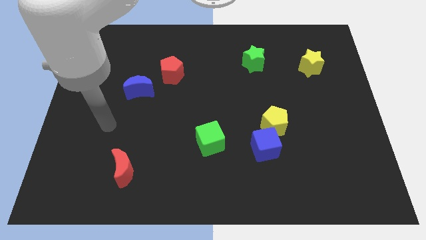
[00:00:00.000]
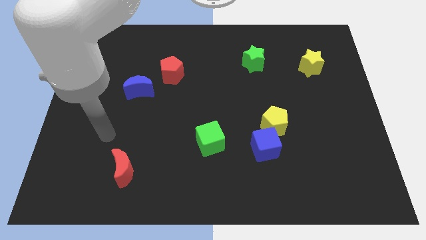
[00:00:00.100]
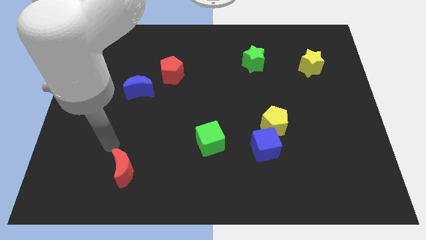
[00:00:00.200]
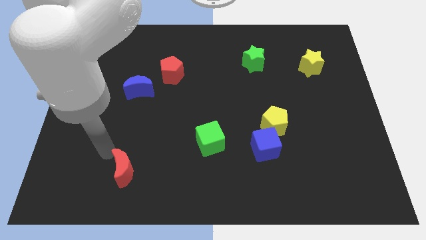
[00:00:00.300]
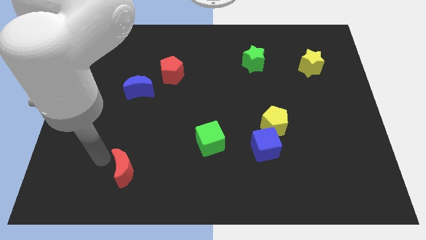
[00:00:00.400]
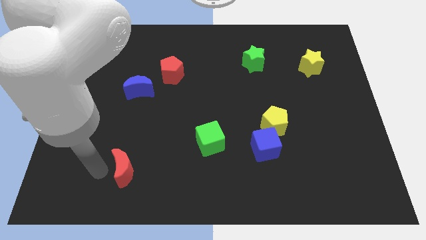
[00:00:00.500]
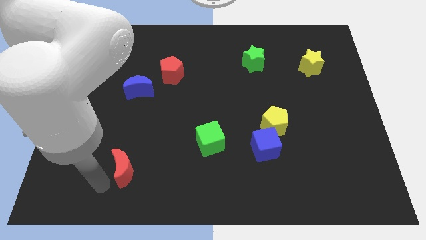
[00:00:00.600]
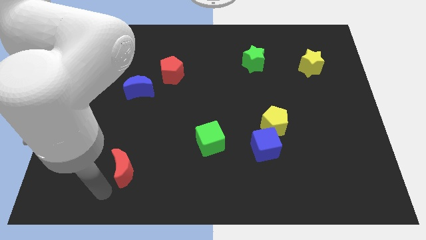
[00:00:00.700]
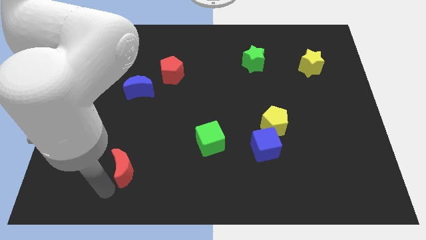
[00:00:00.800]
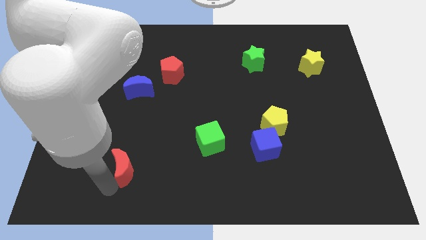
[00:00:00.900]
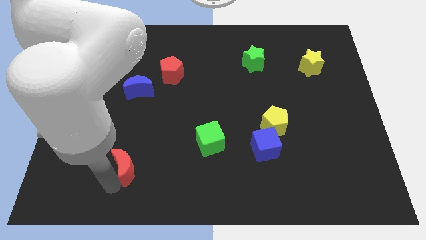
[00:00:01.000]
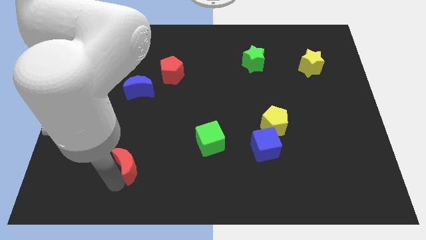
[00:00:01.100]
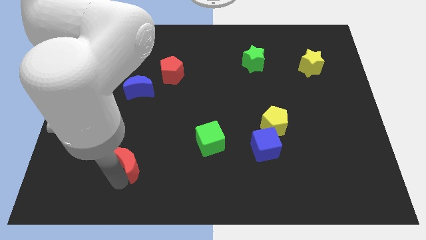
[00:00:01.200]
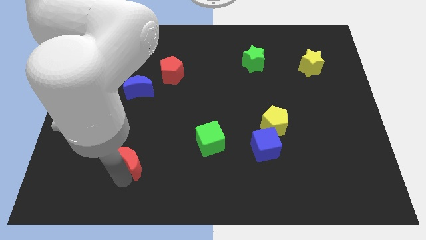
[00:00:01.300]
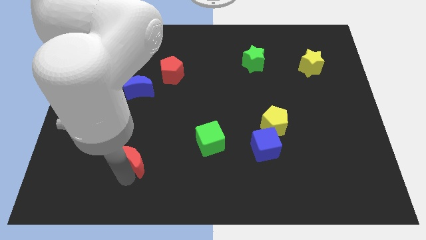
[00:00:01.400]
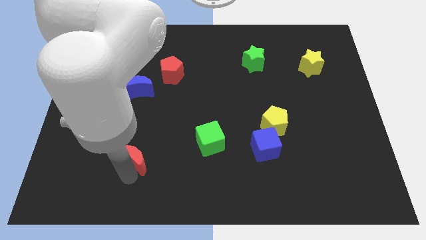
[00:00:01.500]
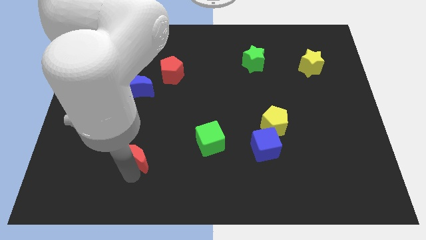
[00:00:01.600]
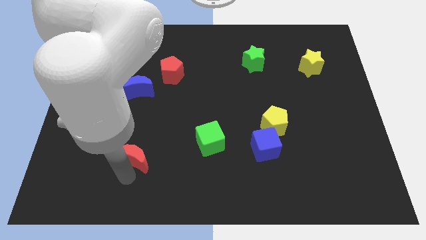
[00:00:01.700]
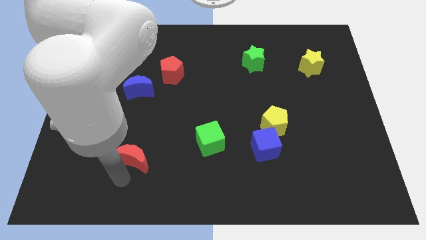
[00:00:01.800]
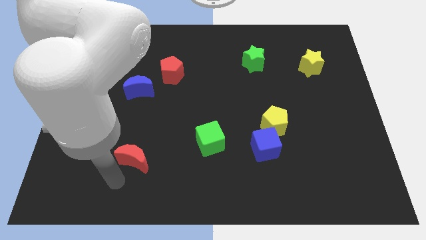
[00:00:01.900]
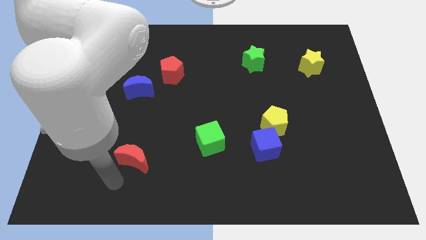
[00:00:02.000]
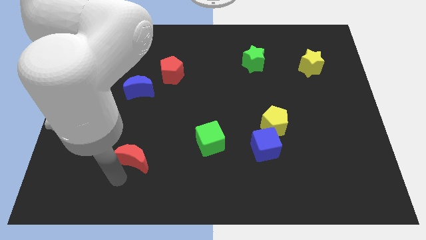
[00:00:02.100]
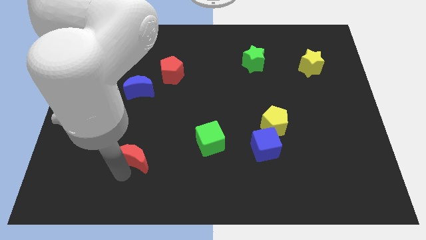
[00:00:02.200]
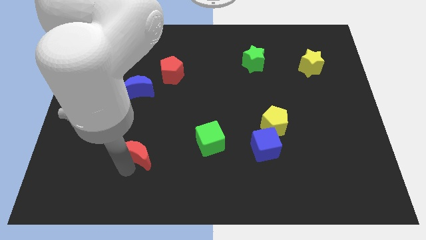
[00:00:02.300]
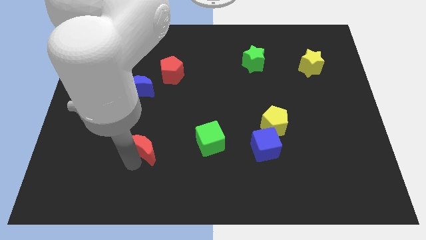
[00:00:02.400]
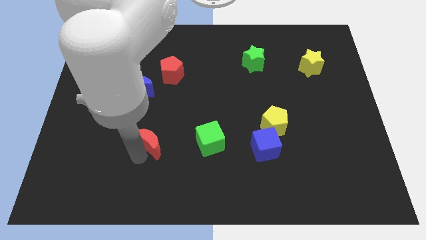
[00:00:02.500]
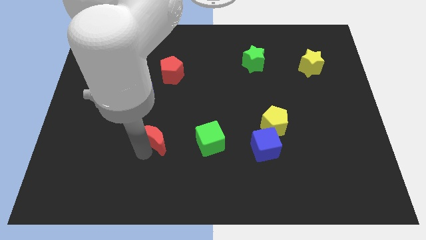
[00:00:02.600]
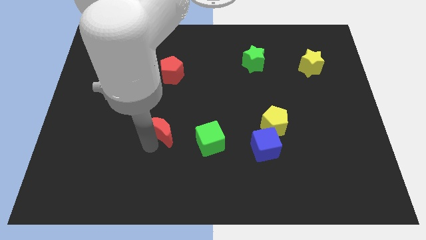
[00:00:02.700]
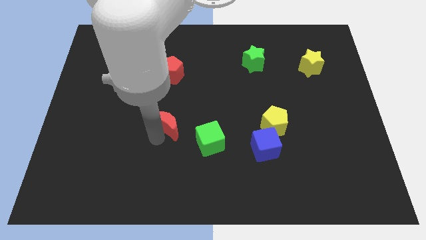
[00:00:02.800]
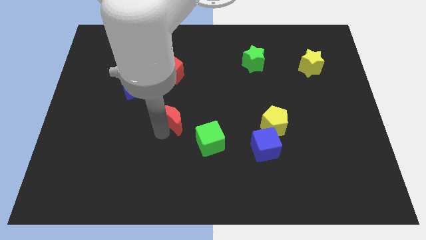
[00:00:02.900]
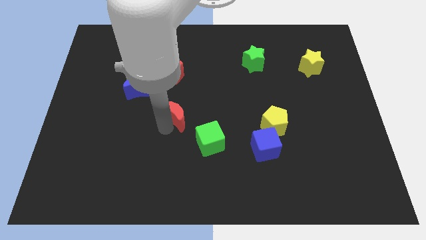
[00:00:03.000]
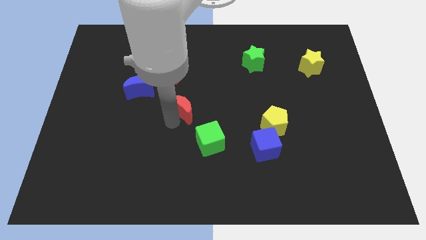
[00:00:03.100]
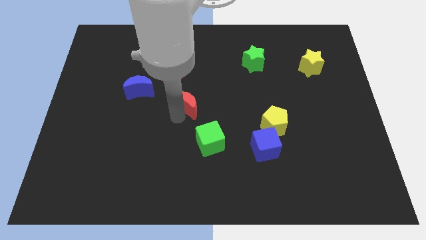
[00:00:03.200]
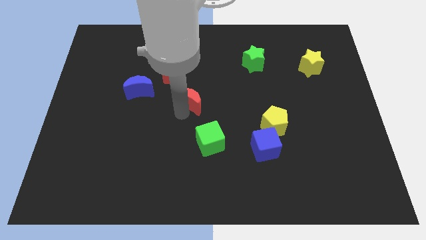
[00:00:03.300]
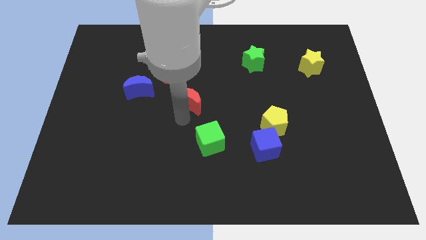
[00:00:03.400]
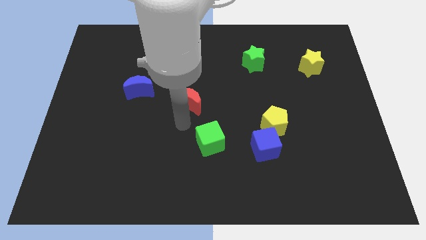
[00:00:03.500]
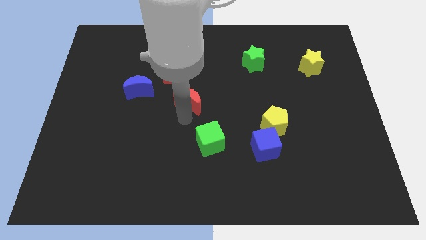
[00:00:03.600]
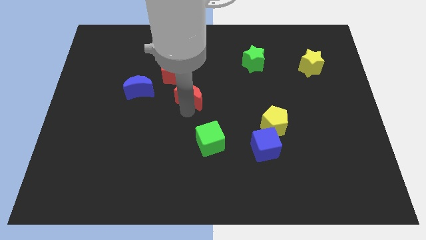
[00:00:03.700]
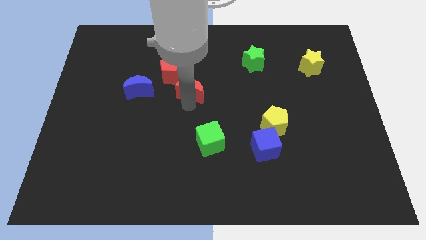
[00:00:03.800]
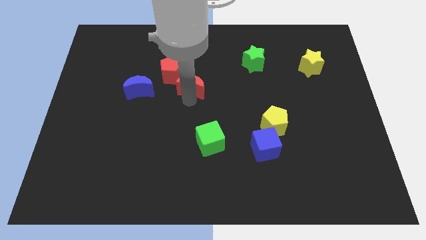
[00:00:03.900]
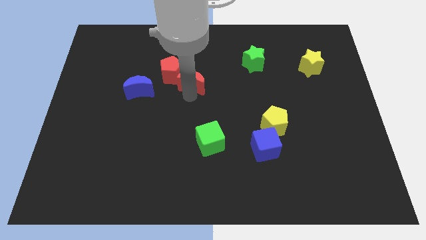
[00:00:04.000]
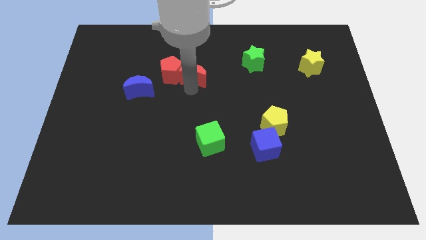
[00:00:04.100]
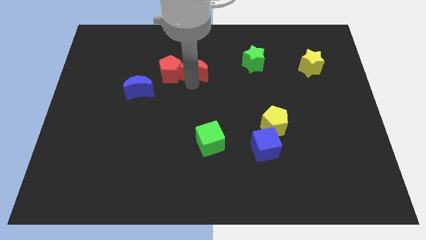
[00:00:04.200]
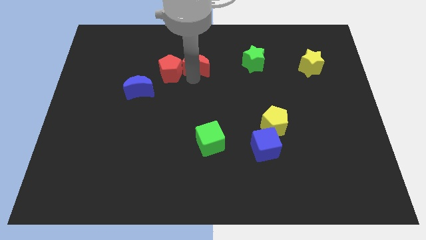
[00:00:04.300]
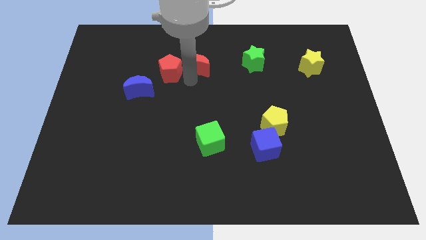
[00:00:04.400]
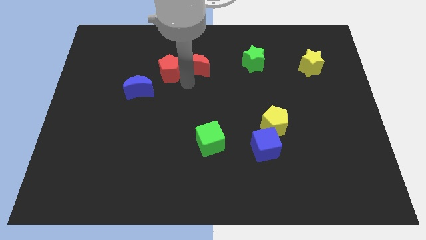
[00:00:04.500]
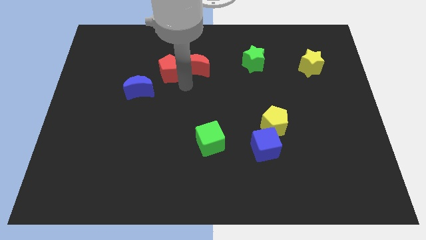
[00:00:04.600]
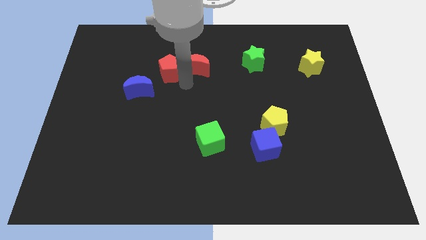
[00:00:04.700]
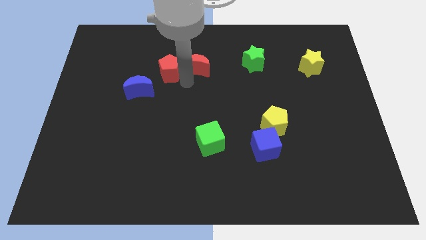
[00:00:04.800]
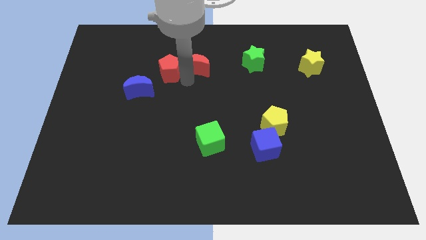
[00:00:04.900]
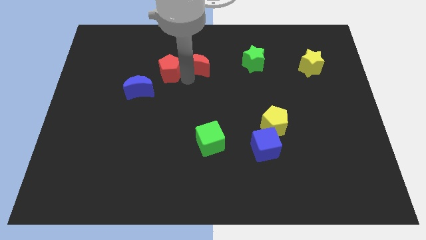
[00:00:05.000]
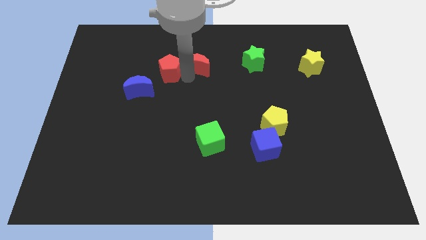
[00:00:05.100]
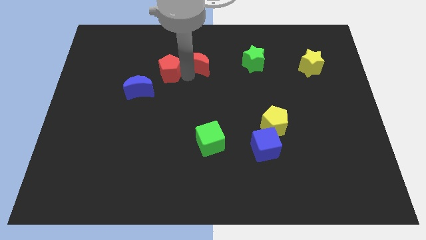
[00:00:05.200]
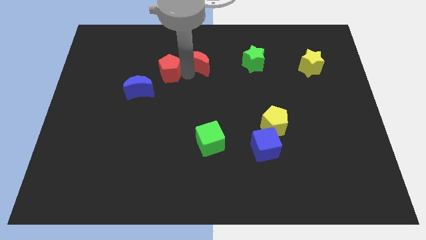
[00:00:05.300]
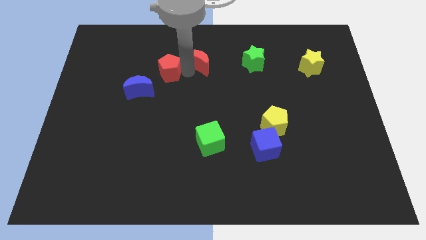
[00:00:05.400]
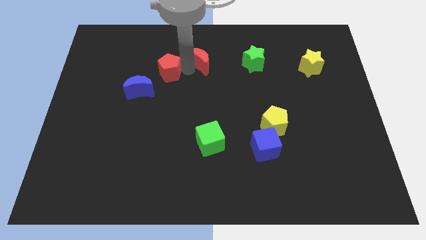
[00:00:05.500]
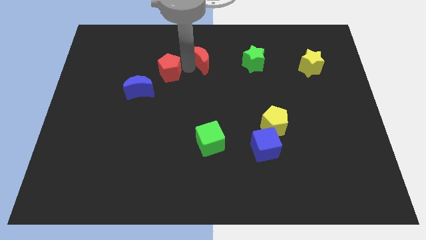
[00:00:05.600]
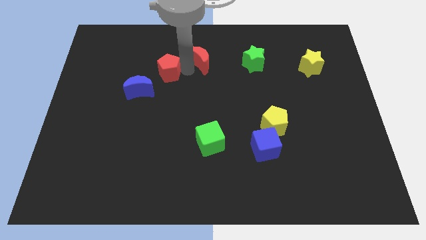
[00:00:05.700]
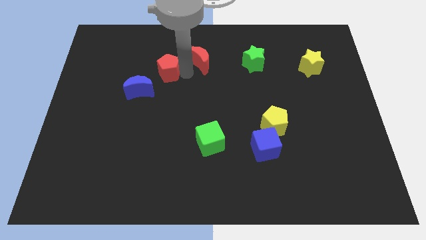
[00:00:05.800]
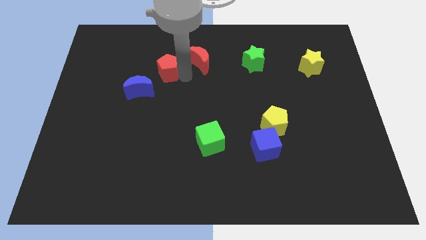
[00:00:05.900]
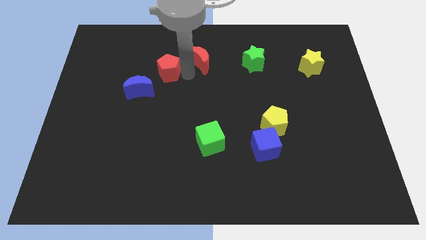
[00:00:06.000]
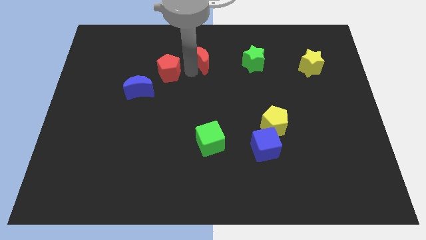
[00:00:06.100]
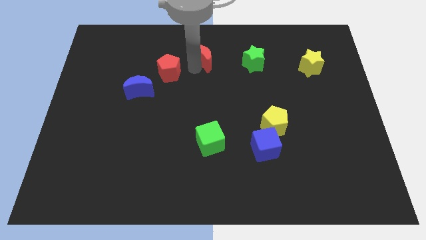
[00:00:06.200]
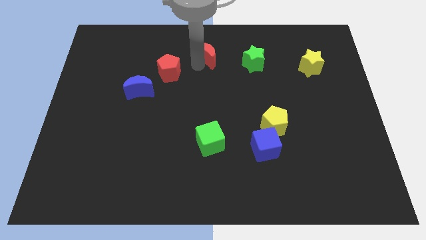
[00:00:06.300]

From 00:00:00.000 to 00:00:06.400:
put the red moon to the towards your base

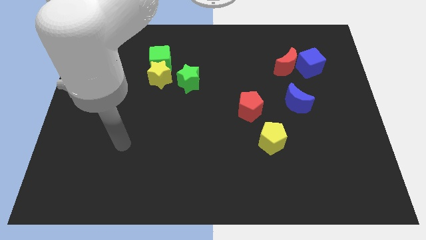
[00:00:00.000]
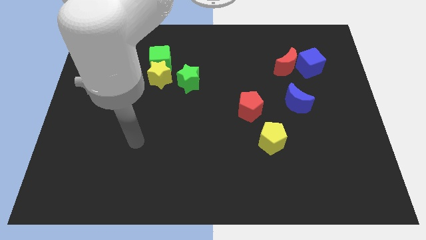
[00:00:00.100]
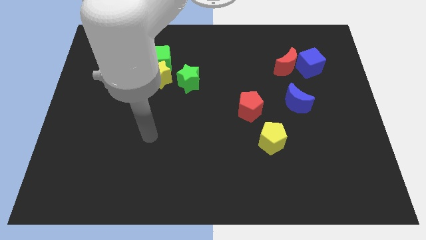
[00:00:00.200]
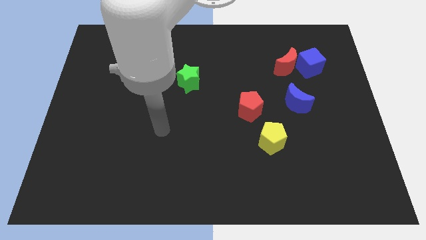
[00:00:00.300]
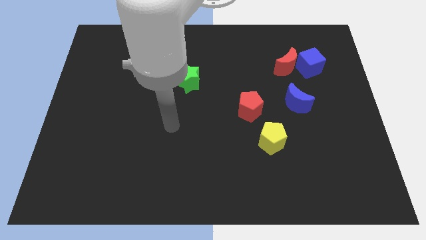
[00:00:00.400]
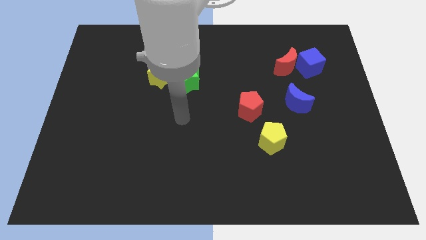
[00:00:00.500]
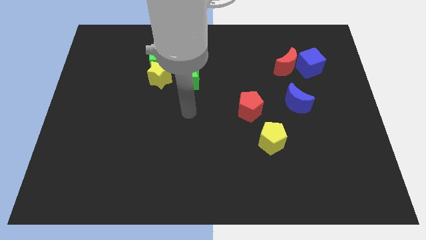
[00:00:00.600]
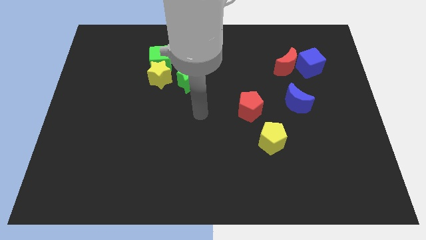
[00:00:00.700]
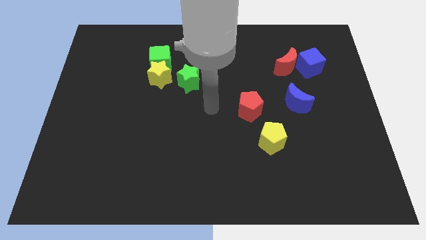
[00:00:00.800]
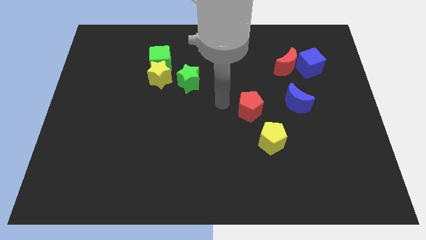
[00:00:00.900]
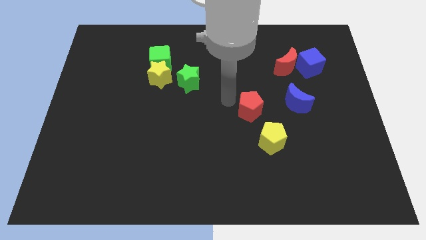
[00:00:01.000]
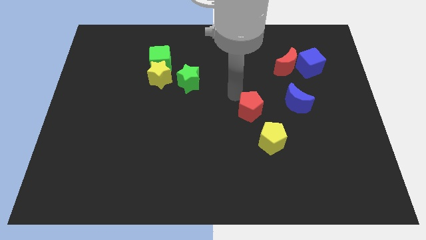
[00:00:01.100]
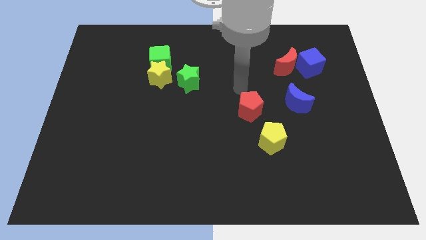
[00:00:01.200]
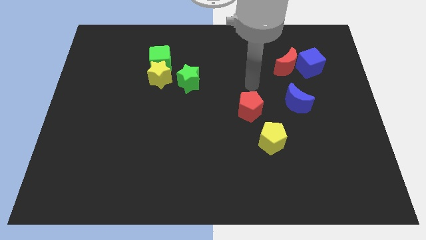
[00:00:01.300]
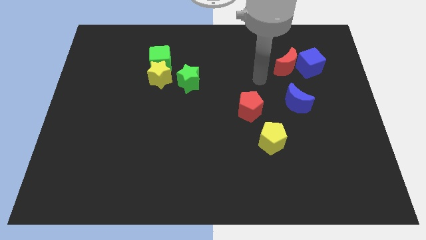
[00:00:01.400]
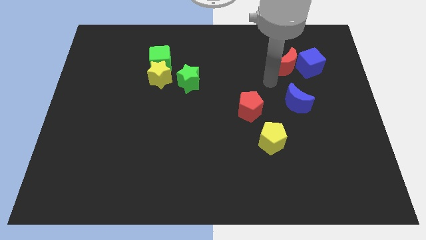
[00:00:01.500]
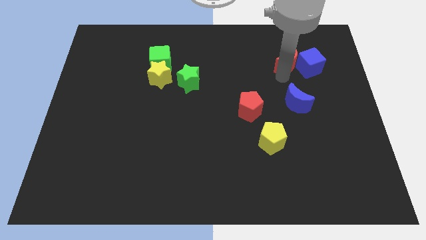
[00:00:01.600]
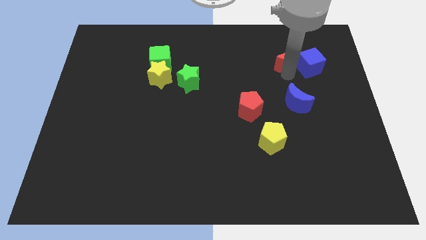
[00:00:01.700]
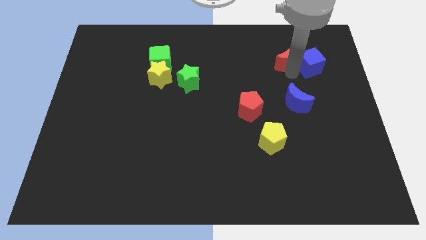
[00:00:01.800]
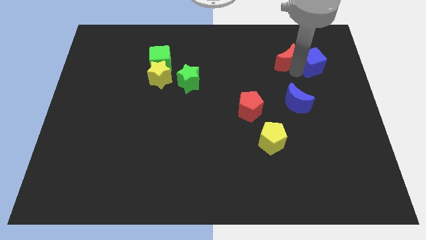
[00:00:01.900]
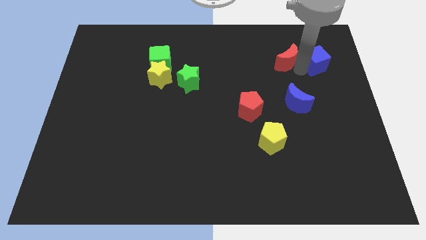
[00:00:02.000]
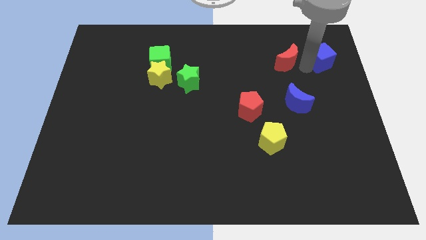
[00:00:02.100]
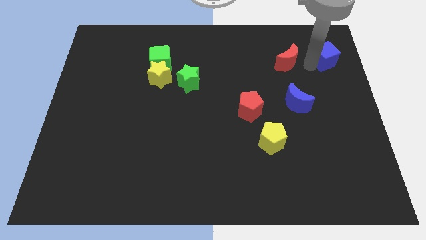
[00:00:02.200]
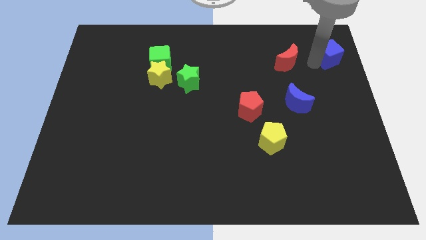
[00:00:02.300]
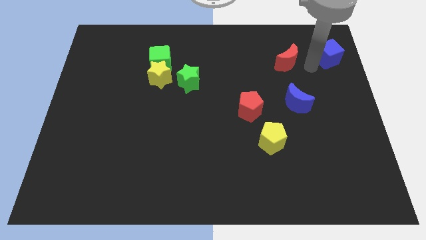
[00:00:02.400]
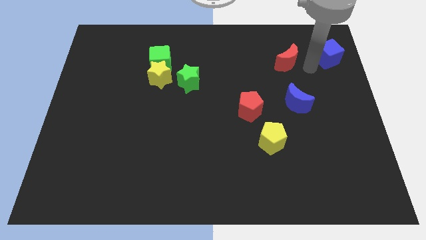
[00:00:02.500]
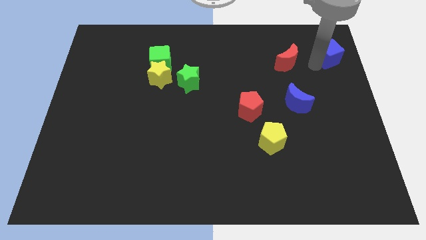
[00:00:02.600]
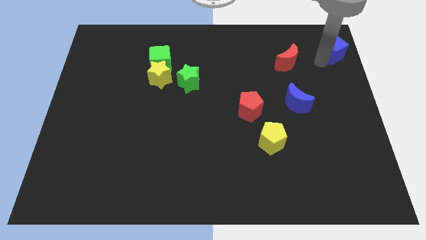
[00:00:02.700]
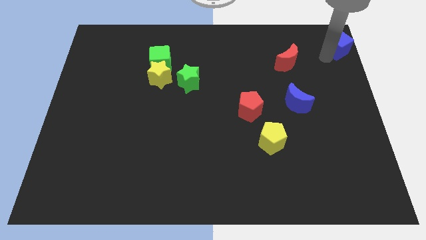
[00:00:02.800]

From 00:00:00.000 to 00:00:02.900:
slide the blue cube to the top right corner
